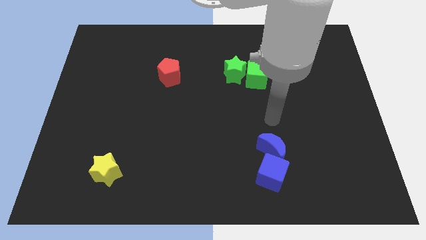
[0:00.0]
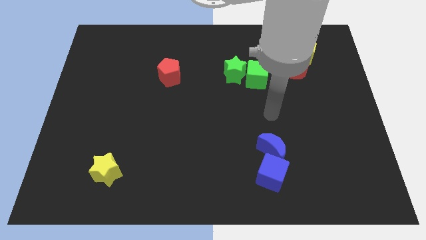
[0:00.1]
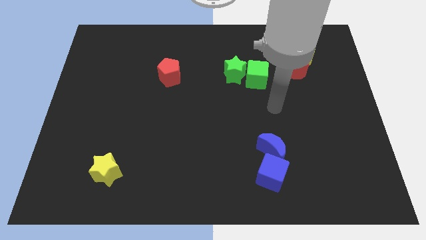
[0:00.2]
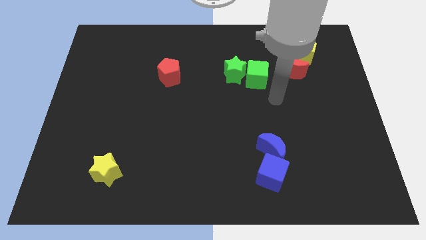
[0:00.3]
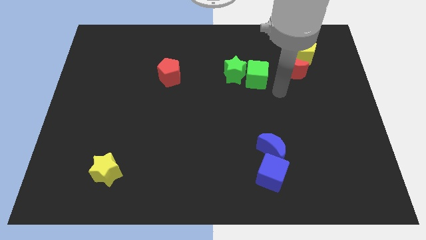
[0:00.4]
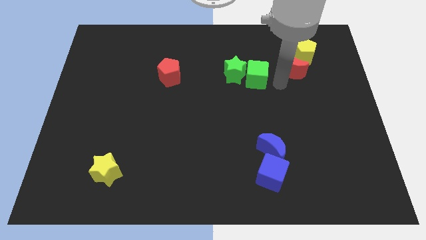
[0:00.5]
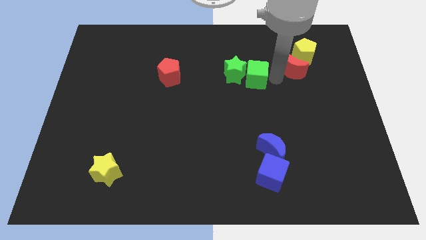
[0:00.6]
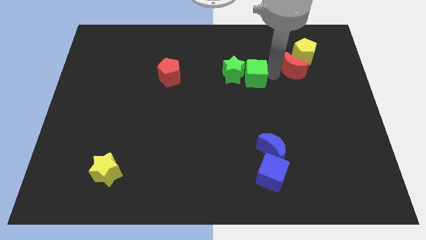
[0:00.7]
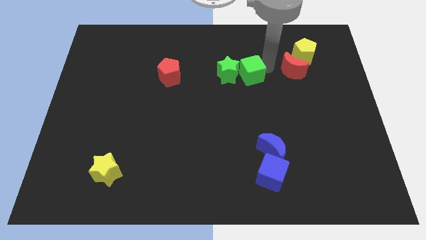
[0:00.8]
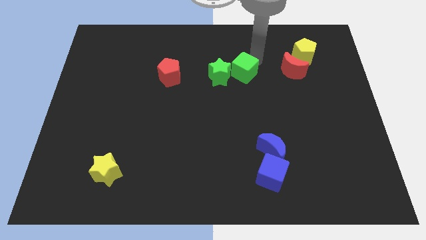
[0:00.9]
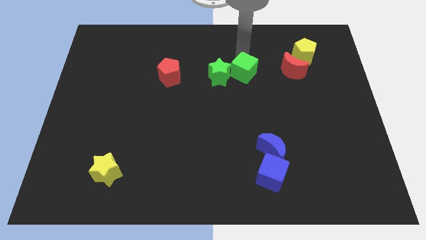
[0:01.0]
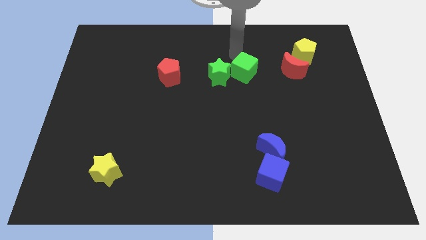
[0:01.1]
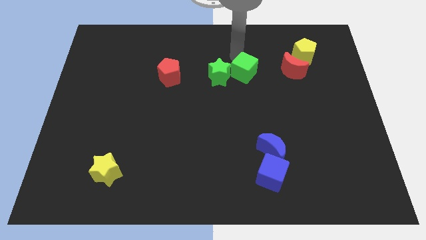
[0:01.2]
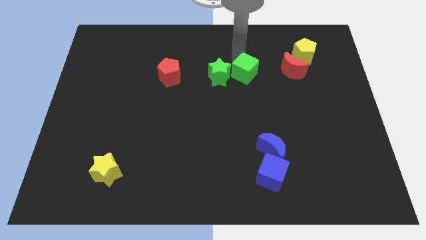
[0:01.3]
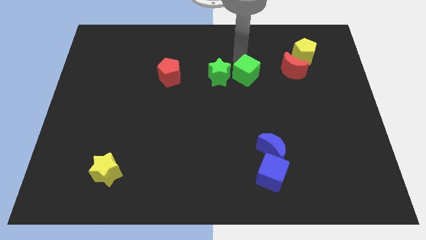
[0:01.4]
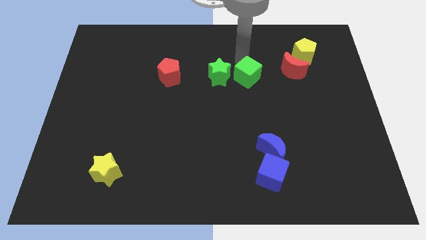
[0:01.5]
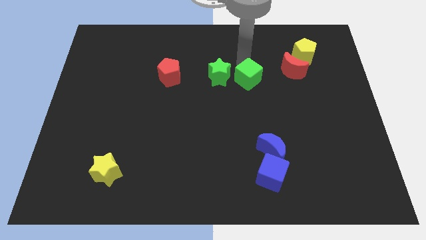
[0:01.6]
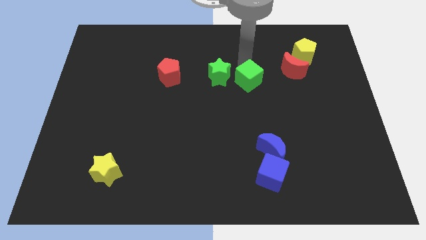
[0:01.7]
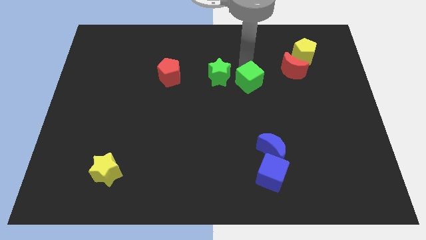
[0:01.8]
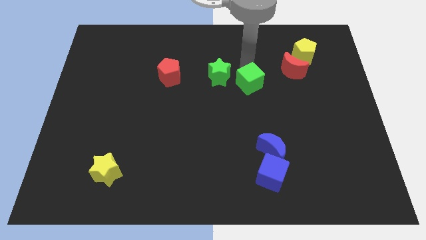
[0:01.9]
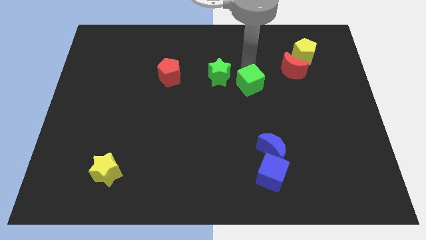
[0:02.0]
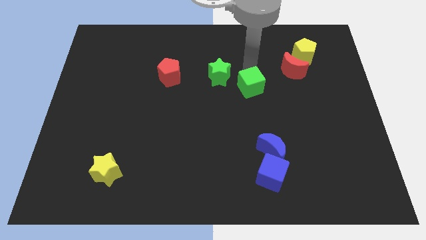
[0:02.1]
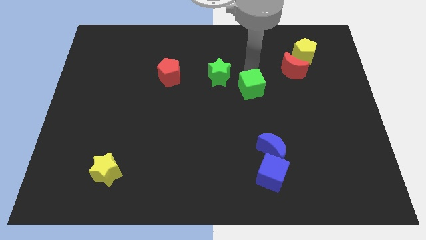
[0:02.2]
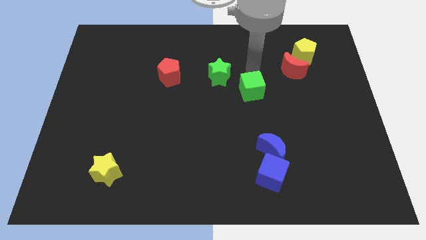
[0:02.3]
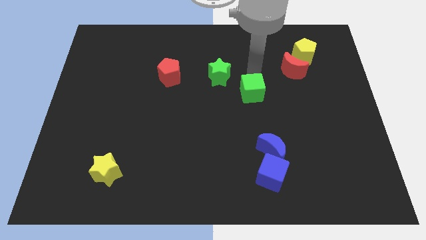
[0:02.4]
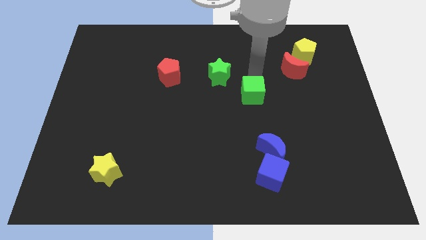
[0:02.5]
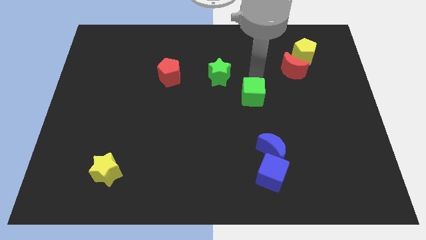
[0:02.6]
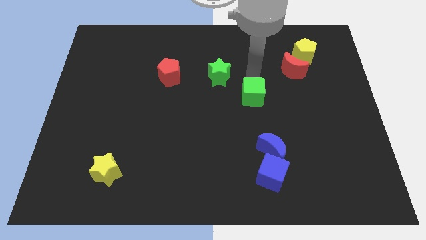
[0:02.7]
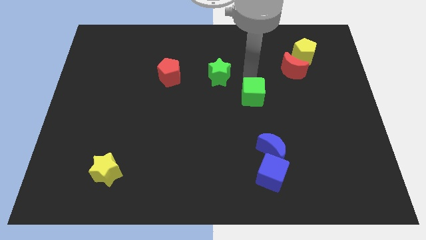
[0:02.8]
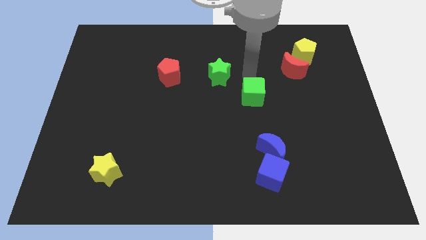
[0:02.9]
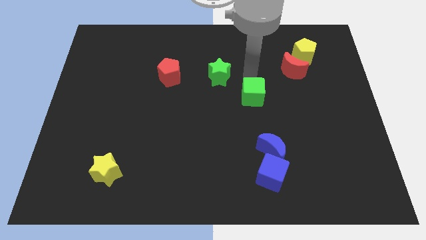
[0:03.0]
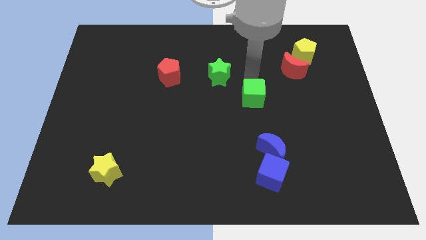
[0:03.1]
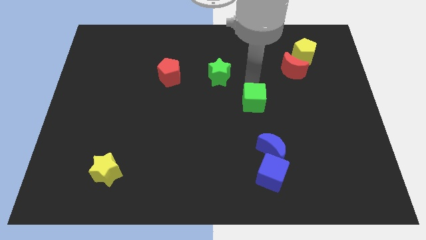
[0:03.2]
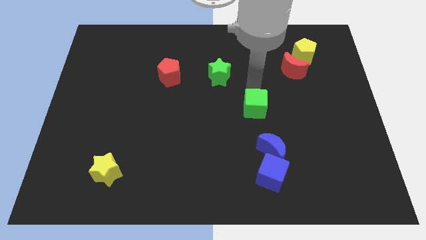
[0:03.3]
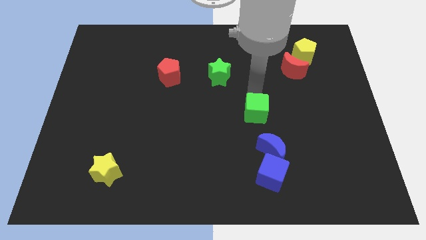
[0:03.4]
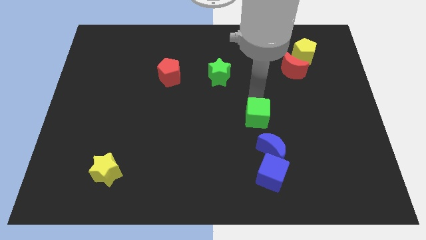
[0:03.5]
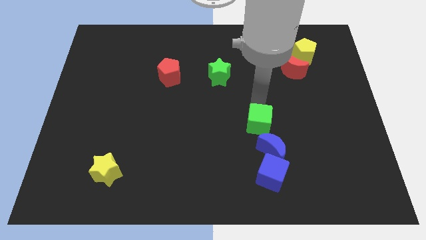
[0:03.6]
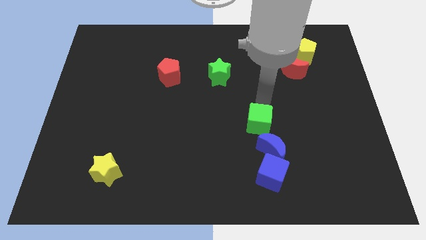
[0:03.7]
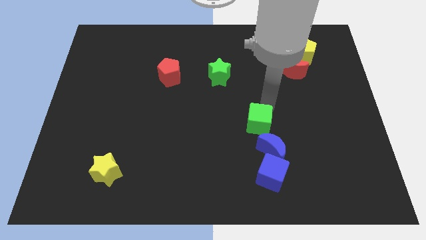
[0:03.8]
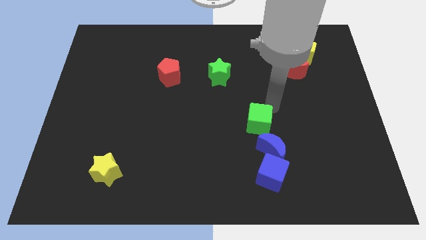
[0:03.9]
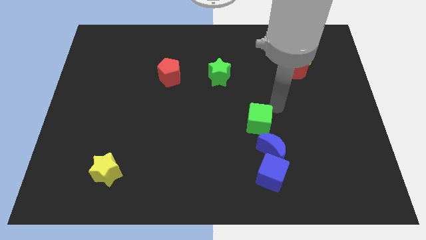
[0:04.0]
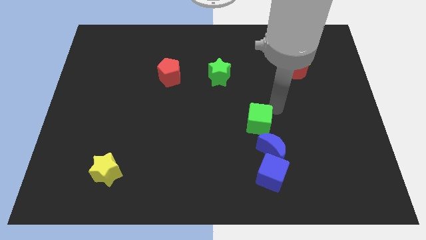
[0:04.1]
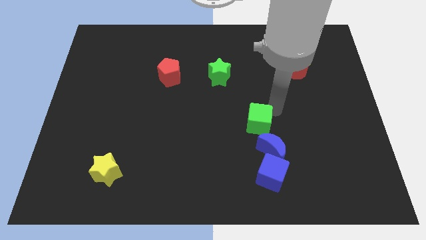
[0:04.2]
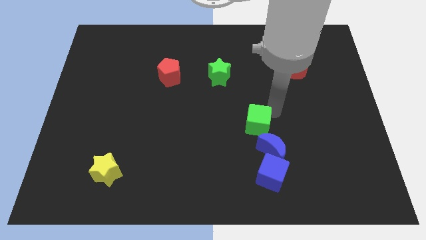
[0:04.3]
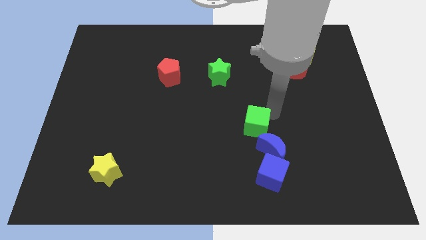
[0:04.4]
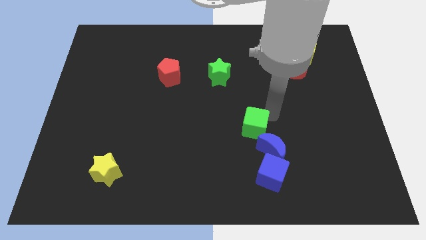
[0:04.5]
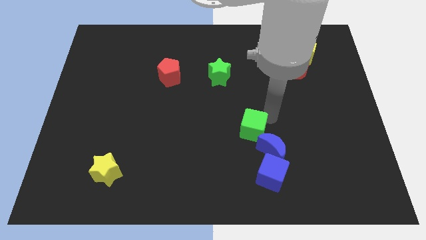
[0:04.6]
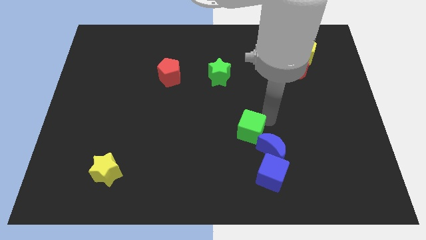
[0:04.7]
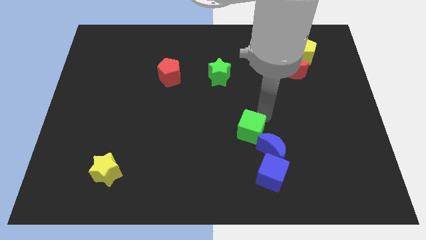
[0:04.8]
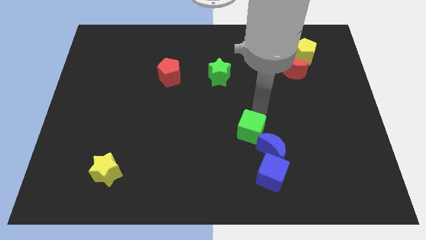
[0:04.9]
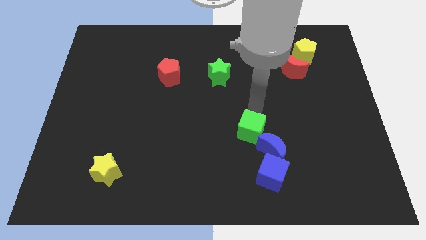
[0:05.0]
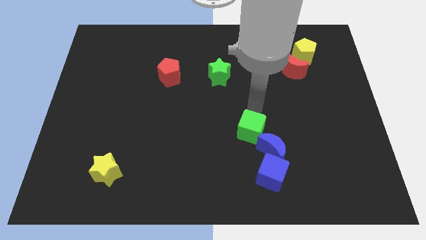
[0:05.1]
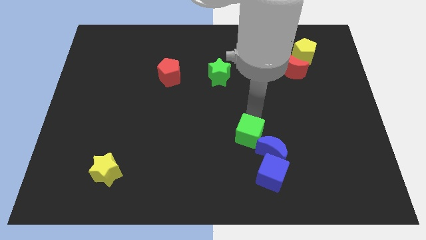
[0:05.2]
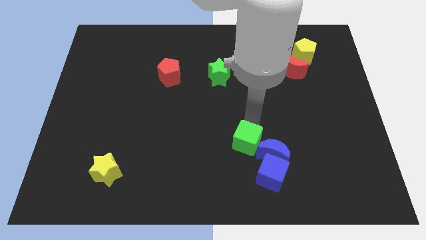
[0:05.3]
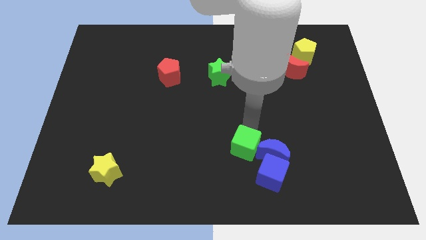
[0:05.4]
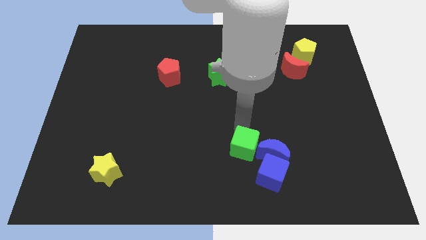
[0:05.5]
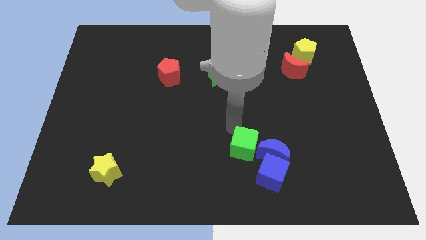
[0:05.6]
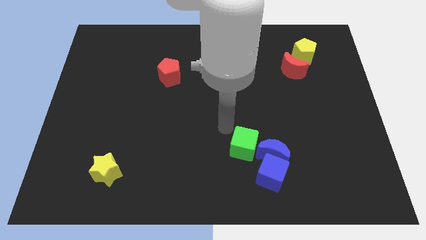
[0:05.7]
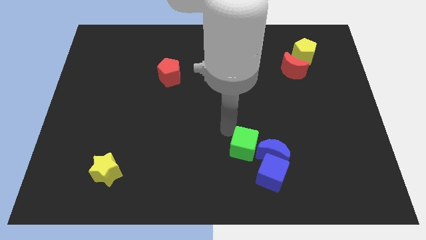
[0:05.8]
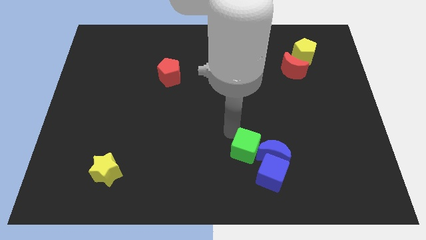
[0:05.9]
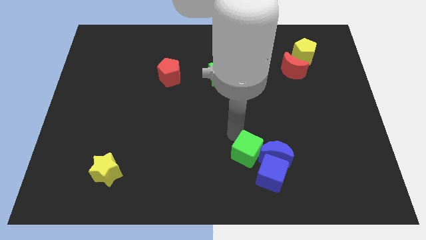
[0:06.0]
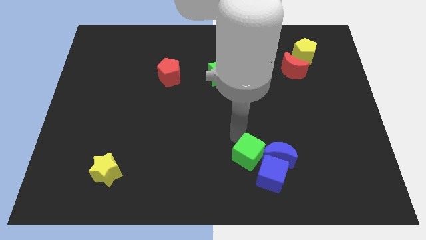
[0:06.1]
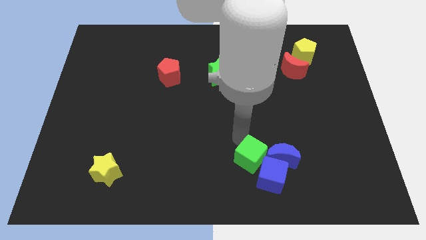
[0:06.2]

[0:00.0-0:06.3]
put the green cube to the blue cube

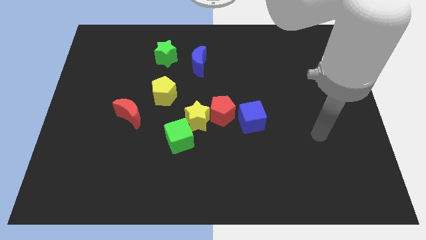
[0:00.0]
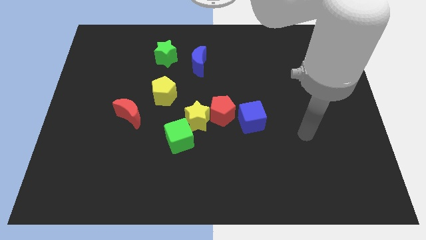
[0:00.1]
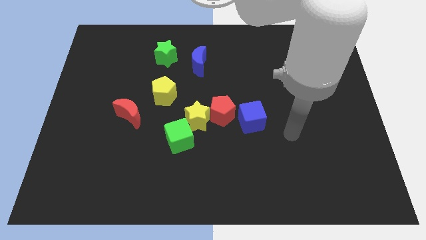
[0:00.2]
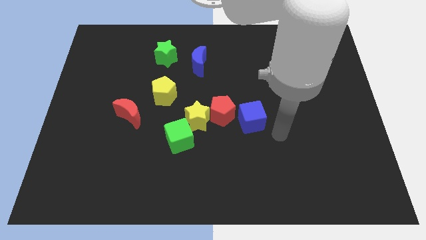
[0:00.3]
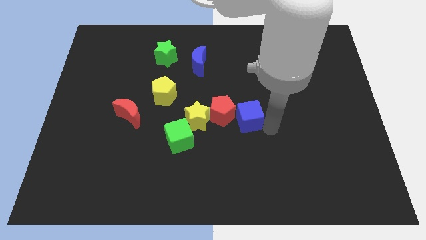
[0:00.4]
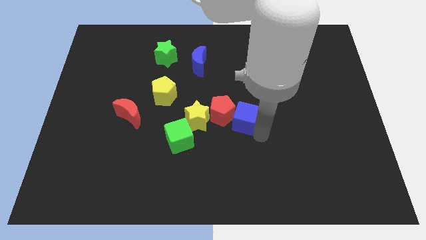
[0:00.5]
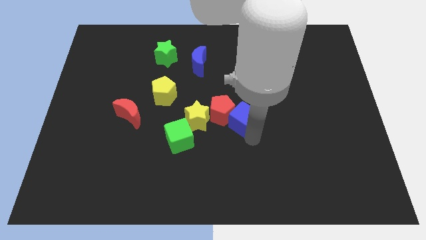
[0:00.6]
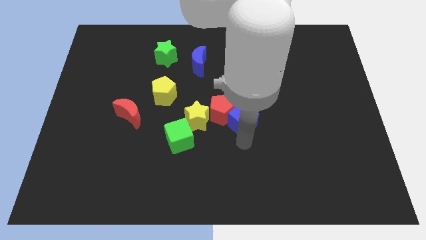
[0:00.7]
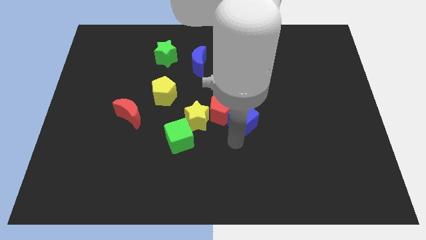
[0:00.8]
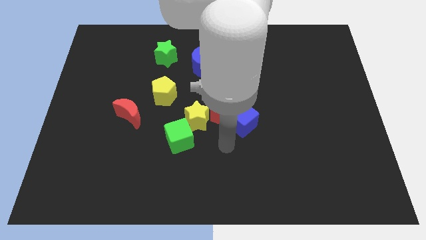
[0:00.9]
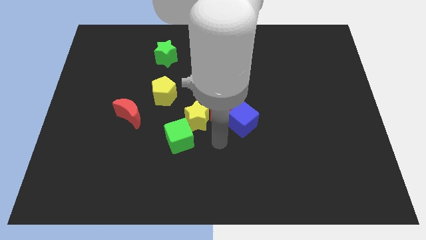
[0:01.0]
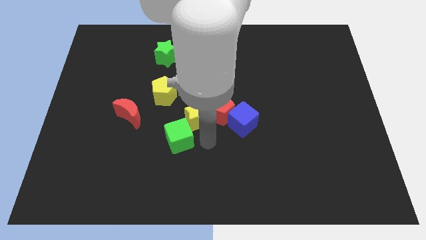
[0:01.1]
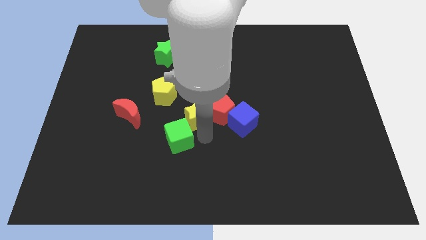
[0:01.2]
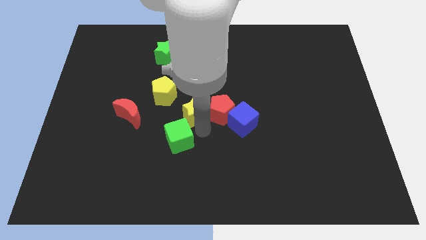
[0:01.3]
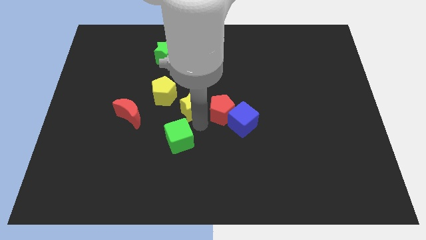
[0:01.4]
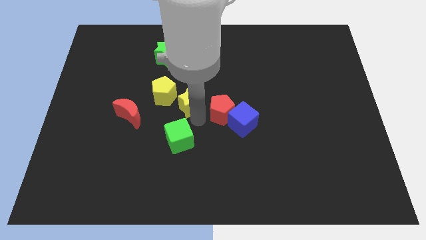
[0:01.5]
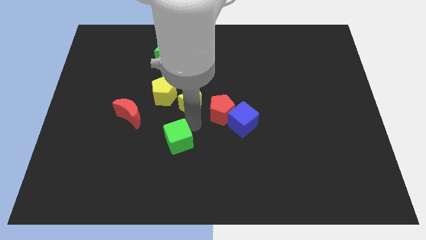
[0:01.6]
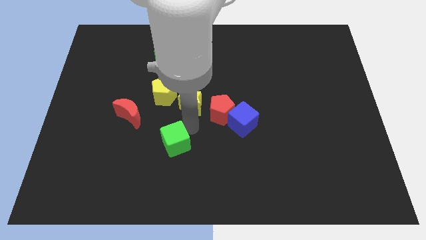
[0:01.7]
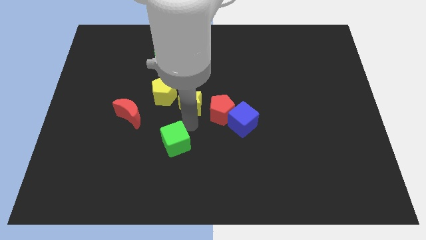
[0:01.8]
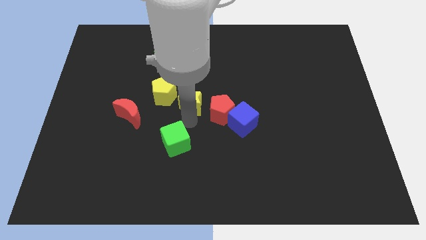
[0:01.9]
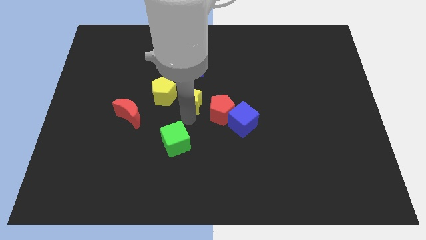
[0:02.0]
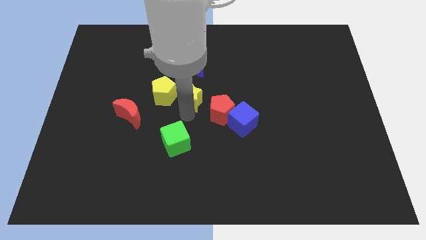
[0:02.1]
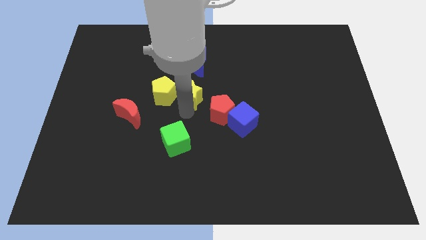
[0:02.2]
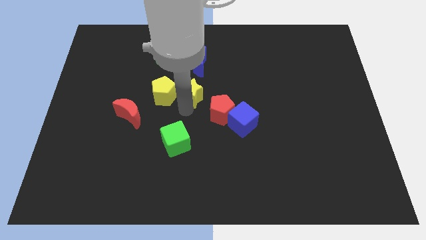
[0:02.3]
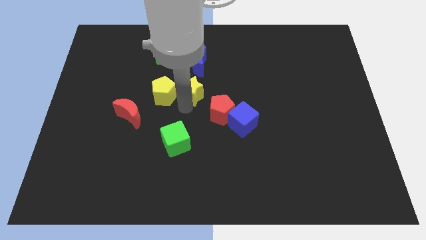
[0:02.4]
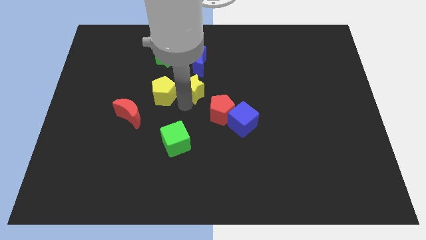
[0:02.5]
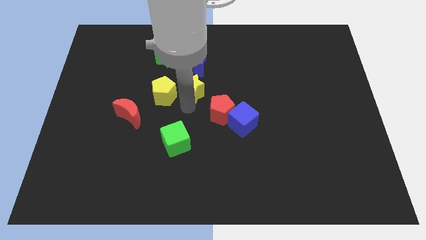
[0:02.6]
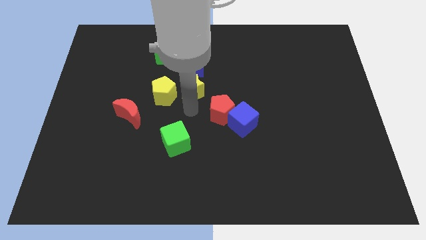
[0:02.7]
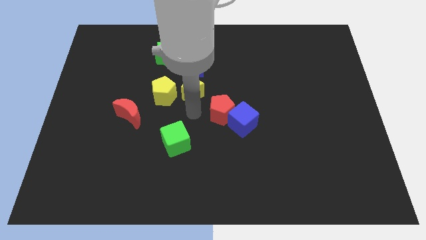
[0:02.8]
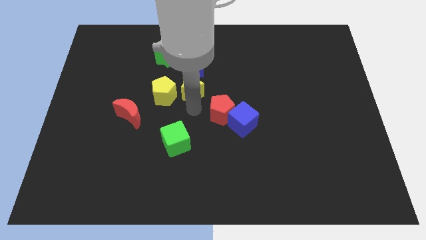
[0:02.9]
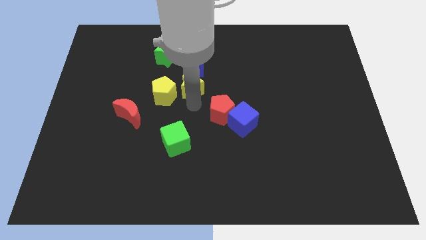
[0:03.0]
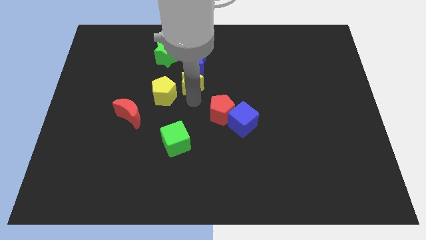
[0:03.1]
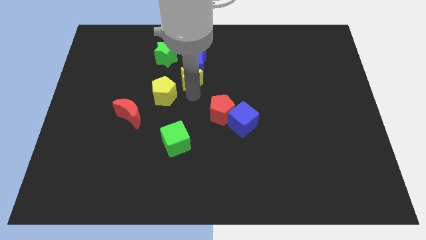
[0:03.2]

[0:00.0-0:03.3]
slide the yellow star next to the blue moon
